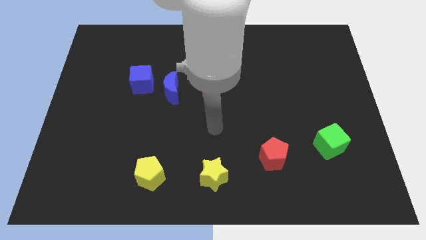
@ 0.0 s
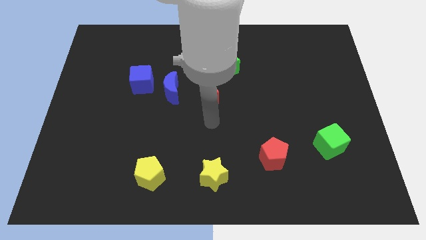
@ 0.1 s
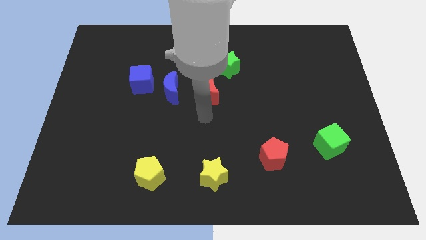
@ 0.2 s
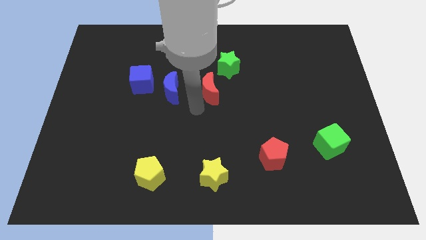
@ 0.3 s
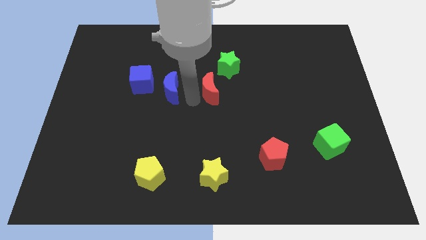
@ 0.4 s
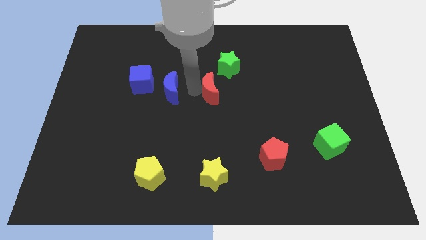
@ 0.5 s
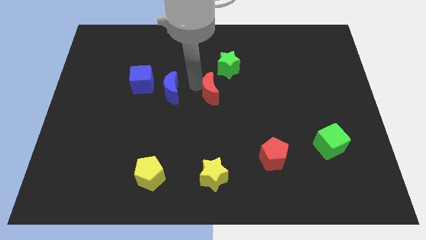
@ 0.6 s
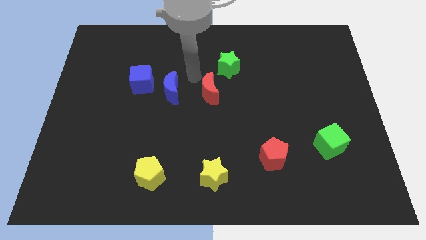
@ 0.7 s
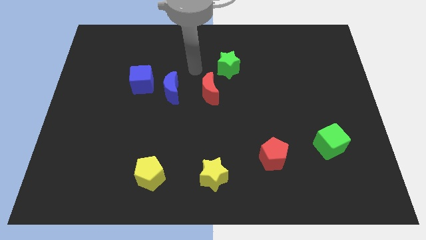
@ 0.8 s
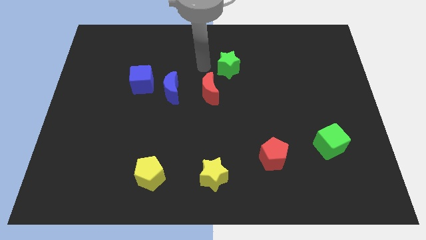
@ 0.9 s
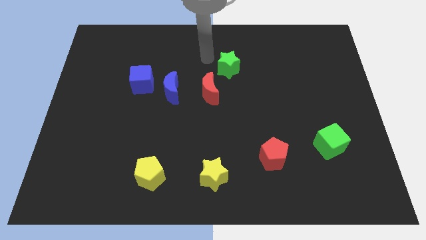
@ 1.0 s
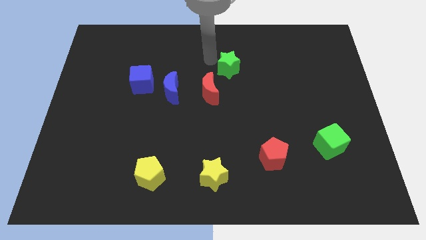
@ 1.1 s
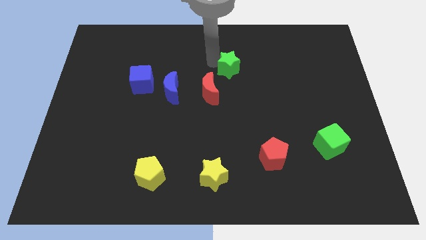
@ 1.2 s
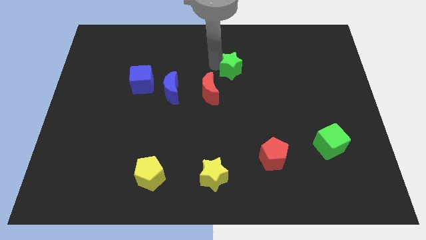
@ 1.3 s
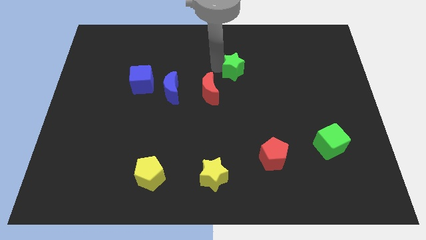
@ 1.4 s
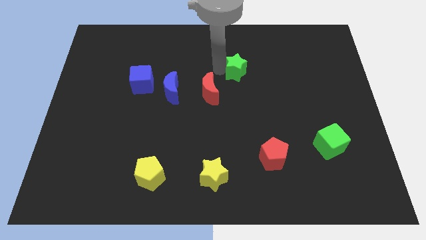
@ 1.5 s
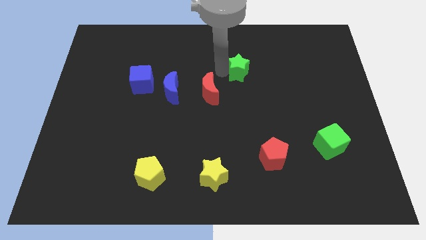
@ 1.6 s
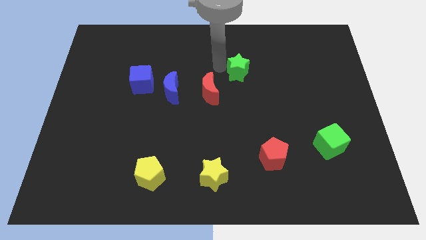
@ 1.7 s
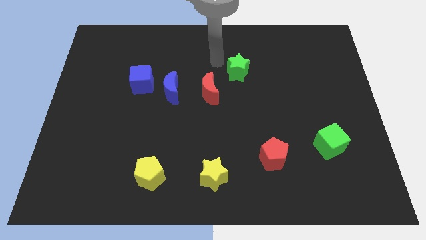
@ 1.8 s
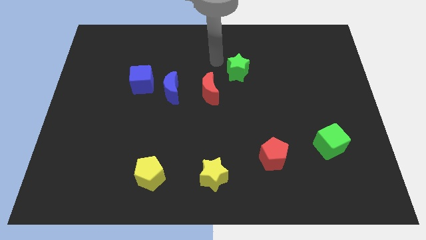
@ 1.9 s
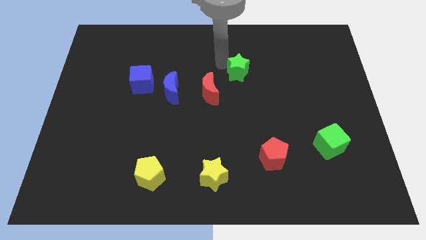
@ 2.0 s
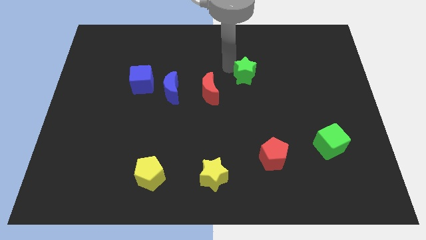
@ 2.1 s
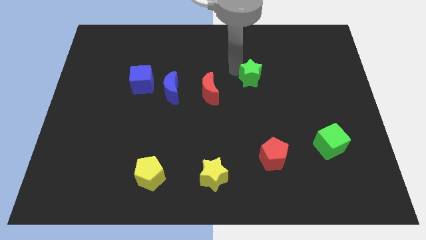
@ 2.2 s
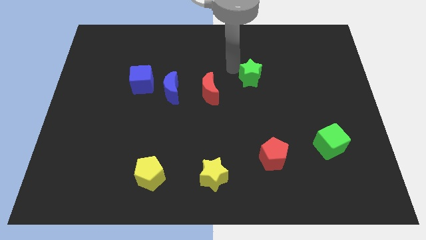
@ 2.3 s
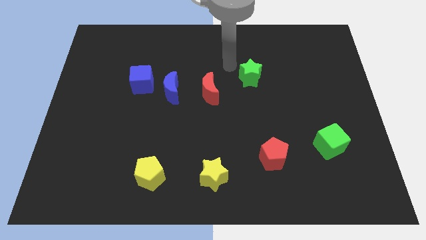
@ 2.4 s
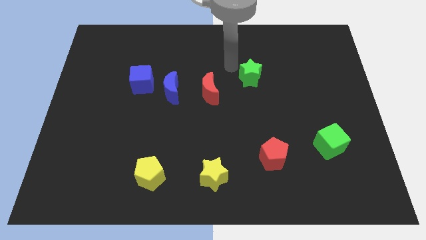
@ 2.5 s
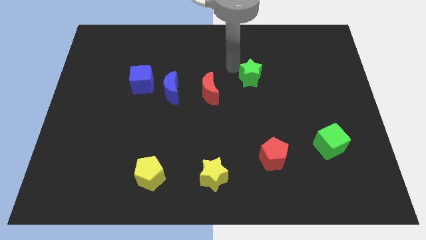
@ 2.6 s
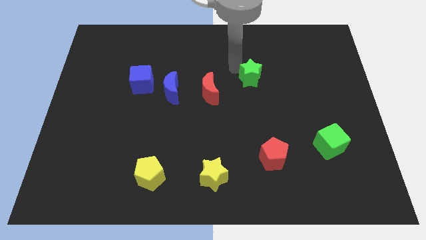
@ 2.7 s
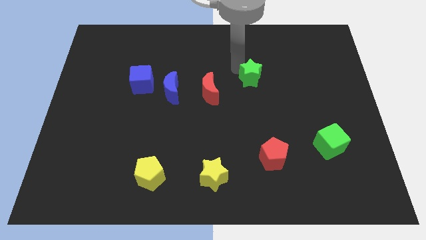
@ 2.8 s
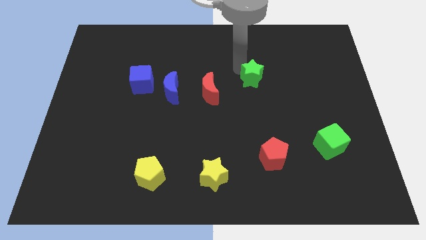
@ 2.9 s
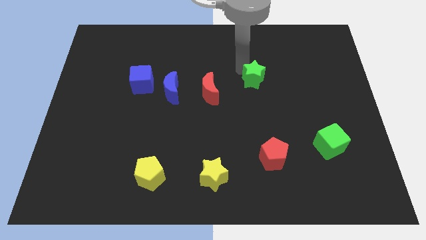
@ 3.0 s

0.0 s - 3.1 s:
push the green star a little downwards and to the right diagonally

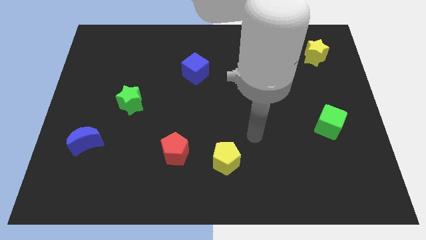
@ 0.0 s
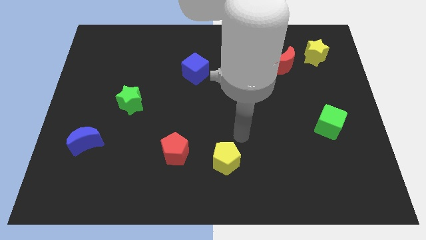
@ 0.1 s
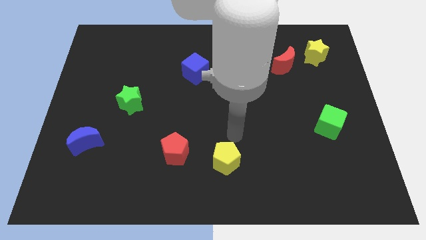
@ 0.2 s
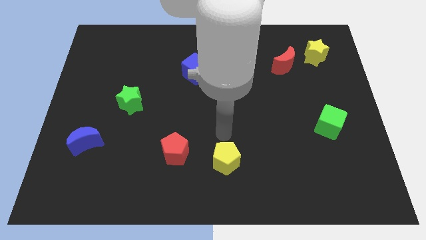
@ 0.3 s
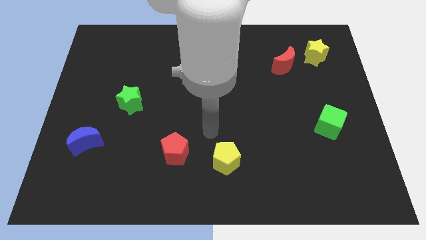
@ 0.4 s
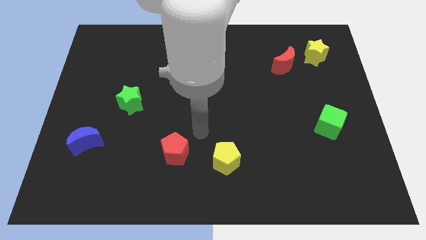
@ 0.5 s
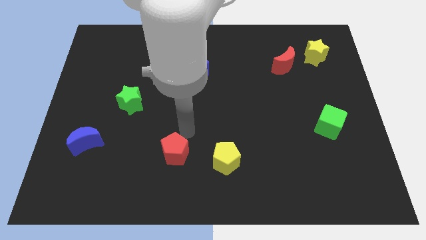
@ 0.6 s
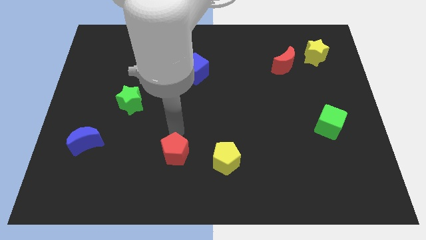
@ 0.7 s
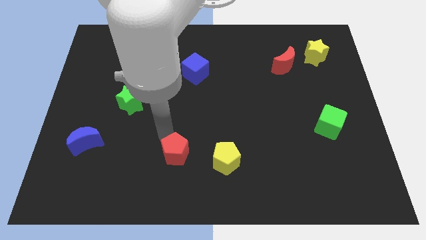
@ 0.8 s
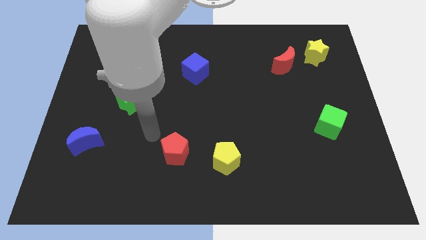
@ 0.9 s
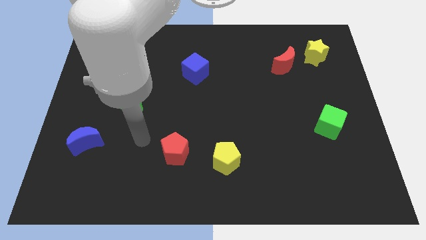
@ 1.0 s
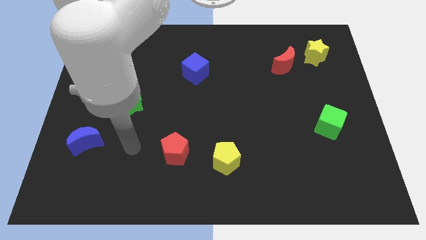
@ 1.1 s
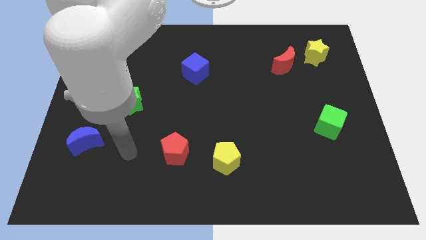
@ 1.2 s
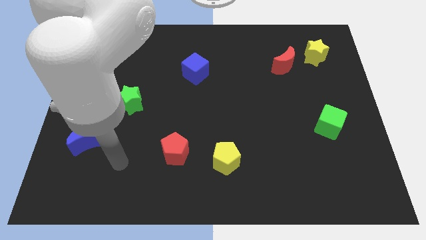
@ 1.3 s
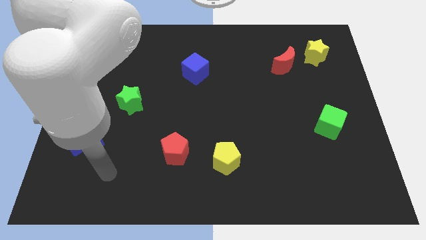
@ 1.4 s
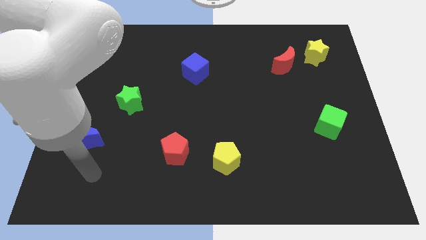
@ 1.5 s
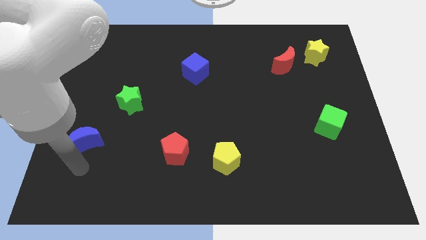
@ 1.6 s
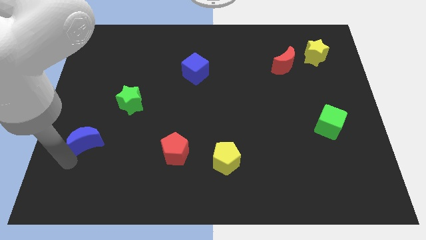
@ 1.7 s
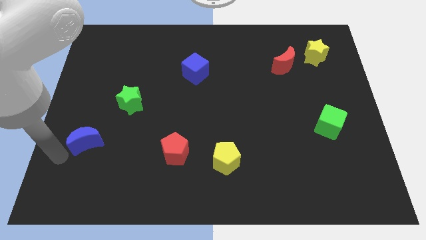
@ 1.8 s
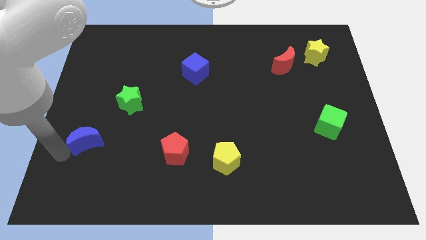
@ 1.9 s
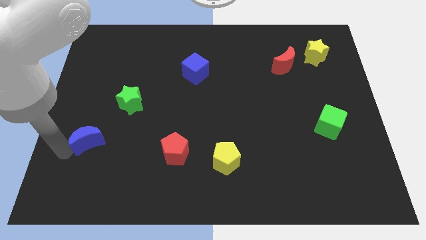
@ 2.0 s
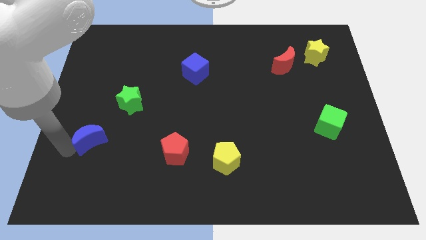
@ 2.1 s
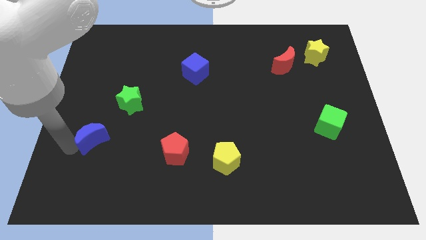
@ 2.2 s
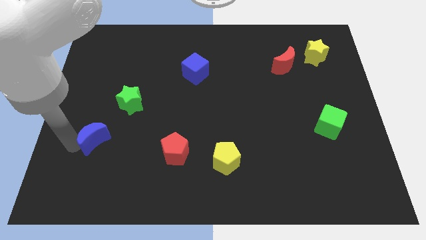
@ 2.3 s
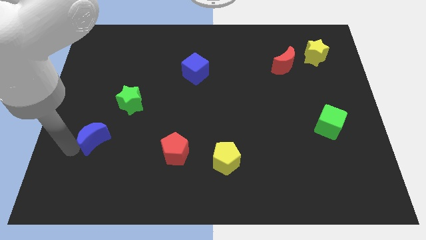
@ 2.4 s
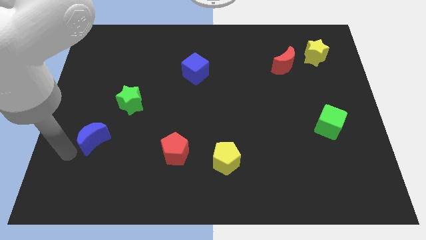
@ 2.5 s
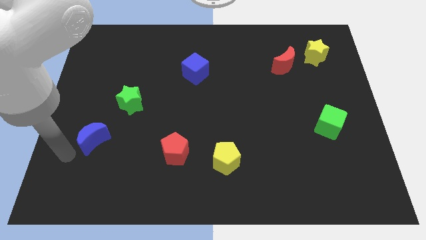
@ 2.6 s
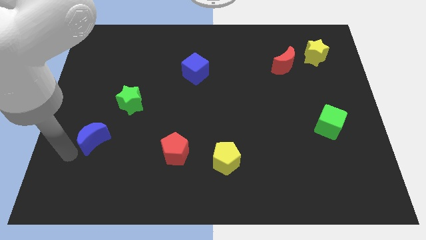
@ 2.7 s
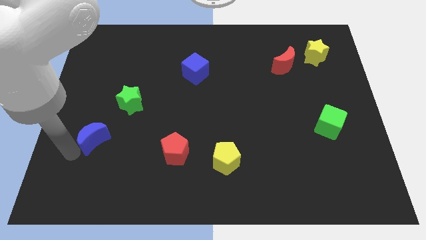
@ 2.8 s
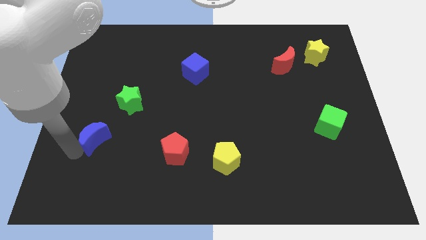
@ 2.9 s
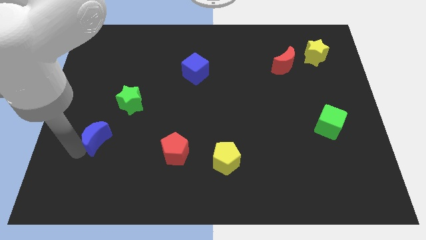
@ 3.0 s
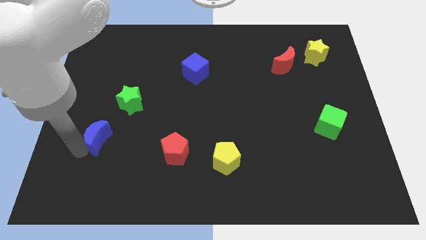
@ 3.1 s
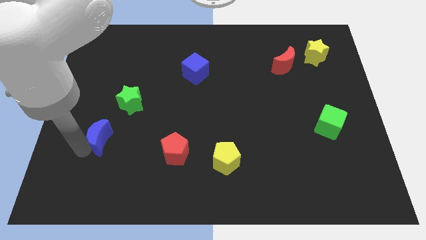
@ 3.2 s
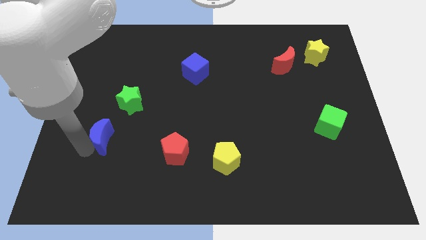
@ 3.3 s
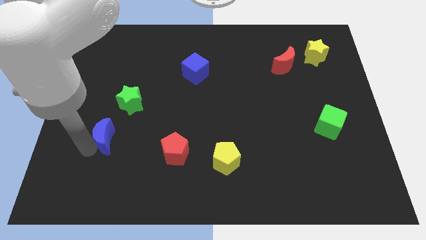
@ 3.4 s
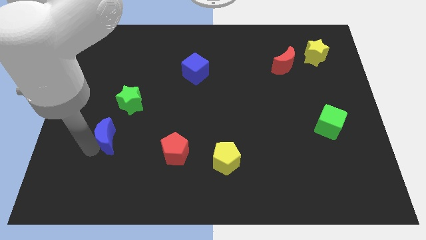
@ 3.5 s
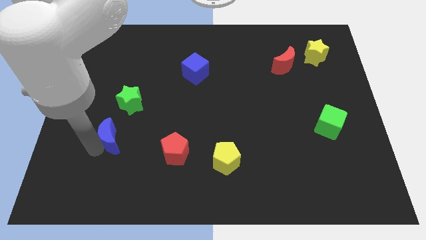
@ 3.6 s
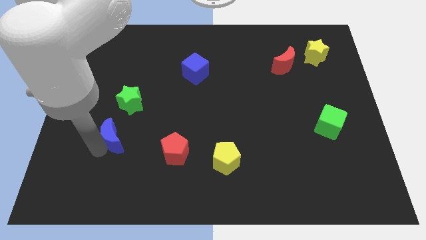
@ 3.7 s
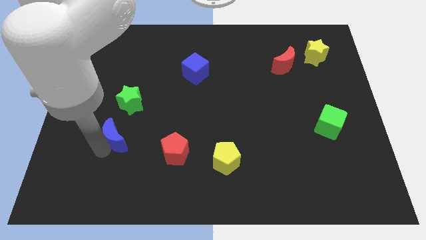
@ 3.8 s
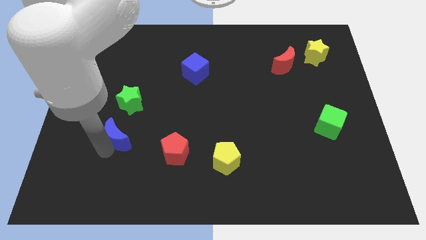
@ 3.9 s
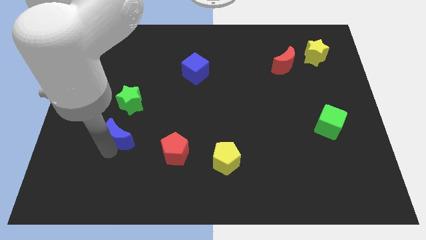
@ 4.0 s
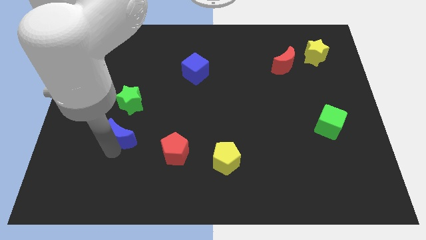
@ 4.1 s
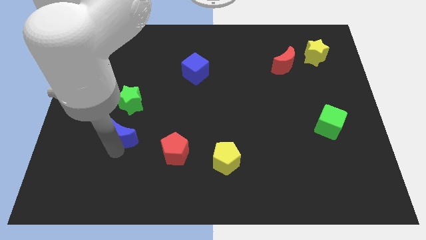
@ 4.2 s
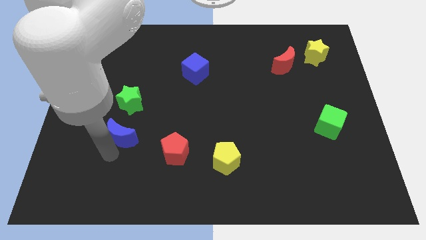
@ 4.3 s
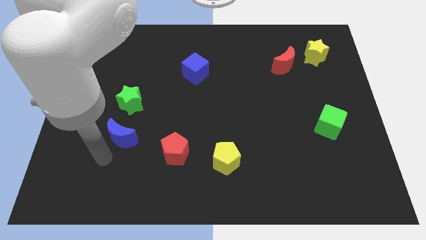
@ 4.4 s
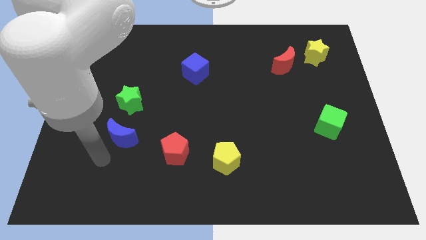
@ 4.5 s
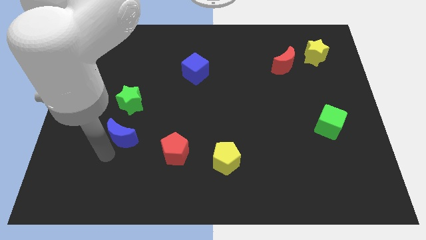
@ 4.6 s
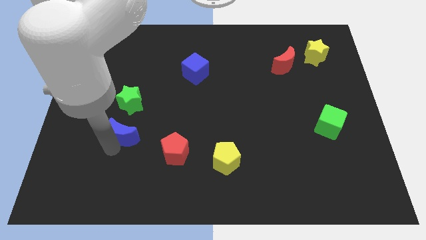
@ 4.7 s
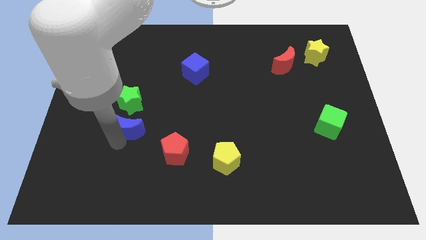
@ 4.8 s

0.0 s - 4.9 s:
push the blue moon up and to the right diagonally a little bit
